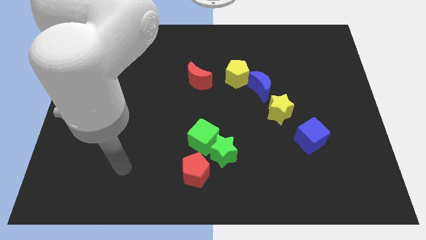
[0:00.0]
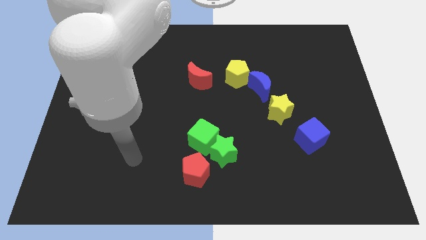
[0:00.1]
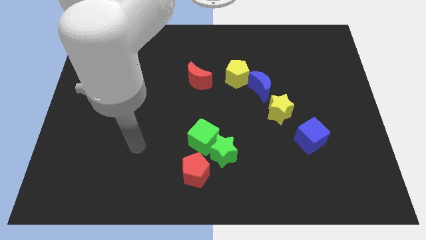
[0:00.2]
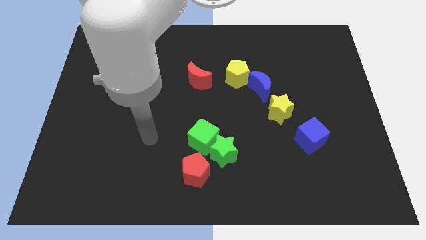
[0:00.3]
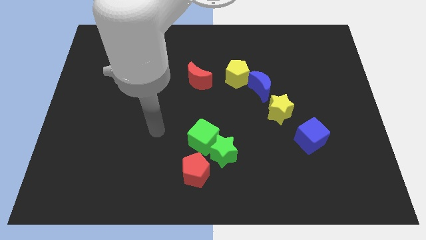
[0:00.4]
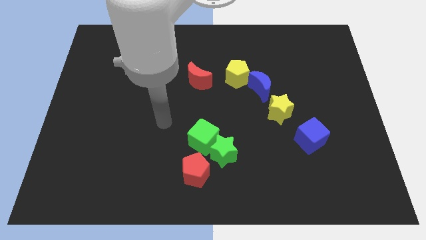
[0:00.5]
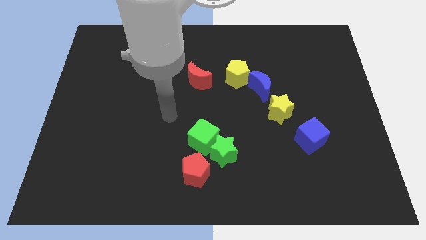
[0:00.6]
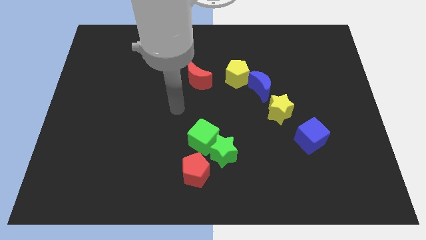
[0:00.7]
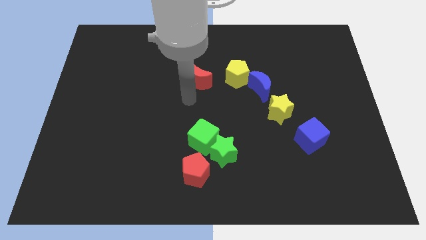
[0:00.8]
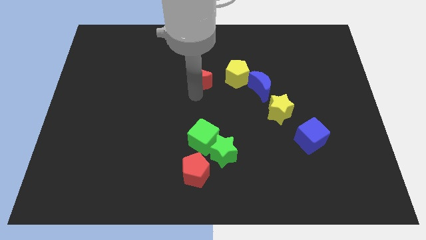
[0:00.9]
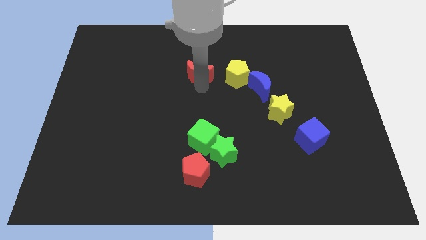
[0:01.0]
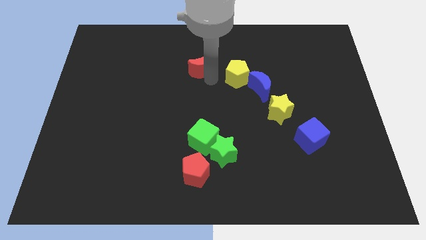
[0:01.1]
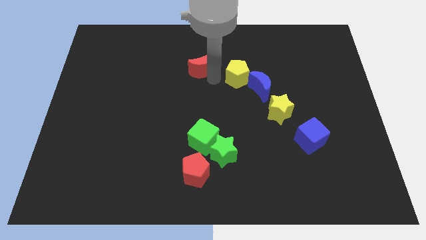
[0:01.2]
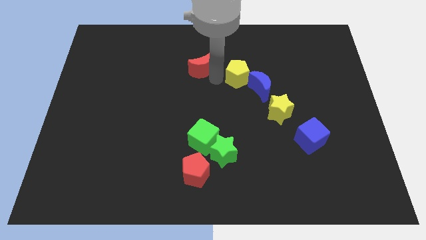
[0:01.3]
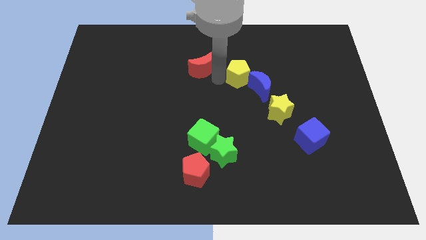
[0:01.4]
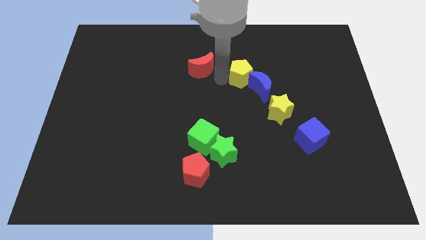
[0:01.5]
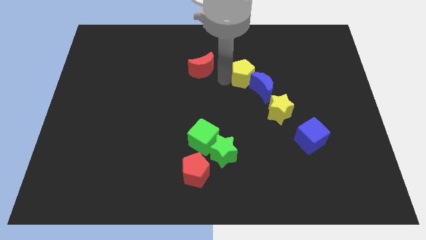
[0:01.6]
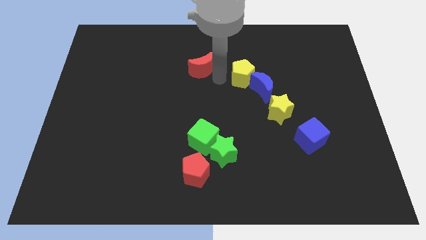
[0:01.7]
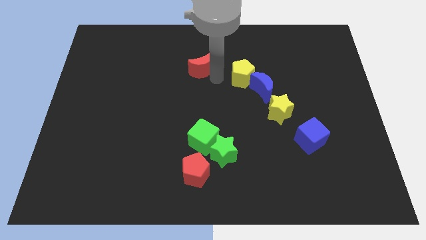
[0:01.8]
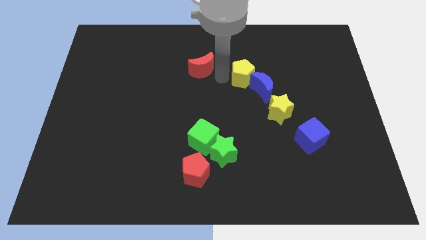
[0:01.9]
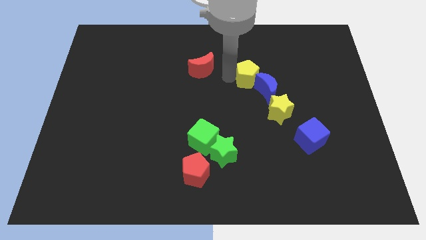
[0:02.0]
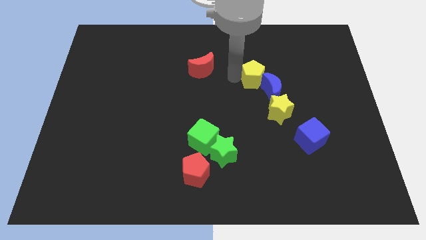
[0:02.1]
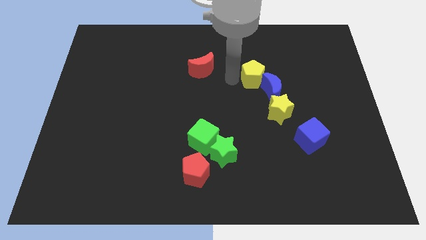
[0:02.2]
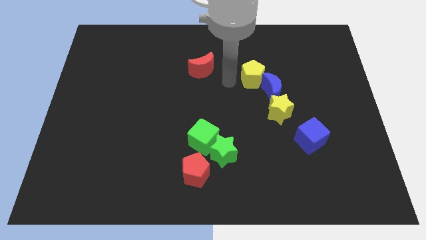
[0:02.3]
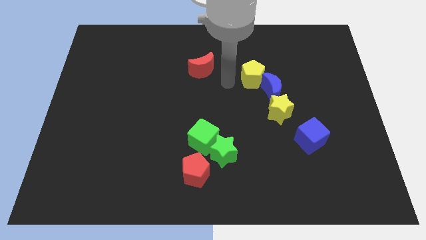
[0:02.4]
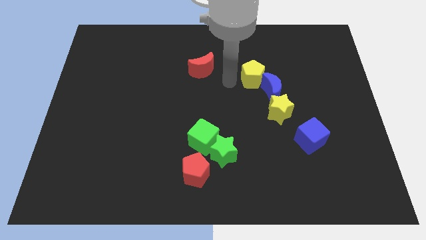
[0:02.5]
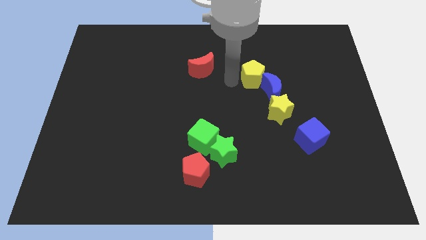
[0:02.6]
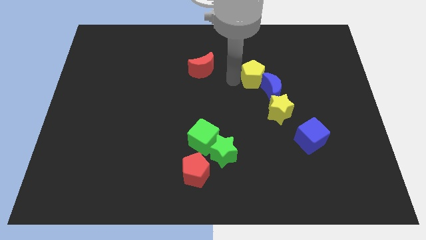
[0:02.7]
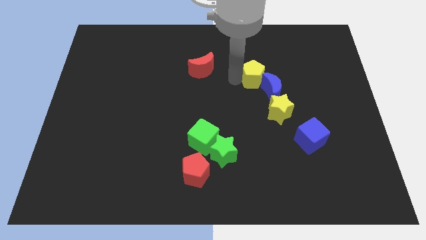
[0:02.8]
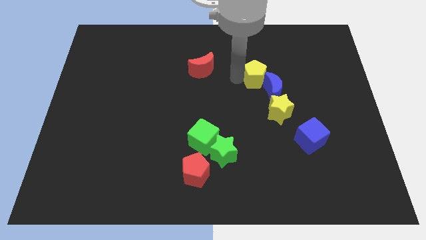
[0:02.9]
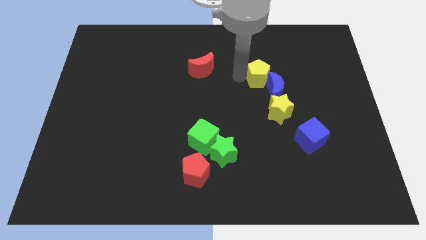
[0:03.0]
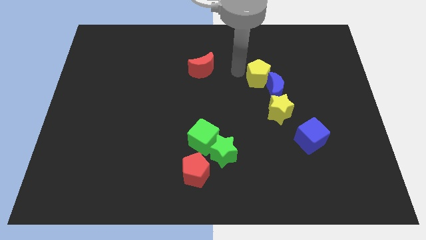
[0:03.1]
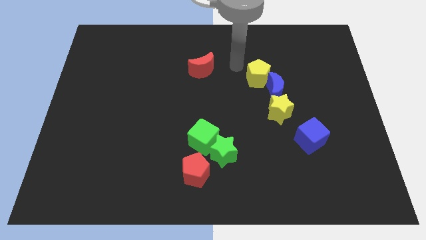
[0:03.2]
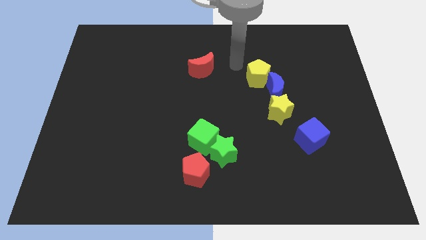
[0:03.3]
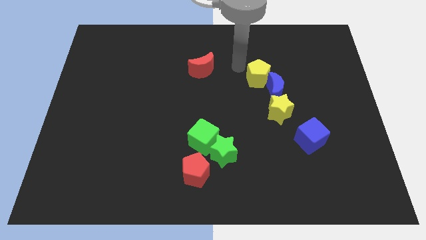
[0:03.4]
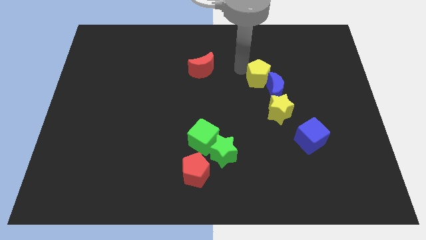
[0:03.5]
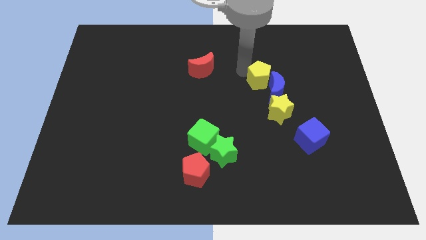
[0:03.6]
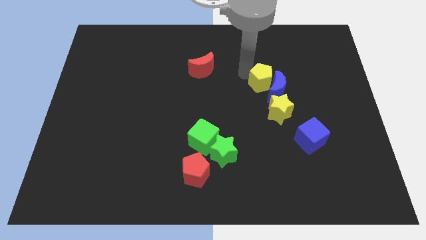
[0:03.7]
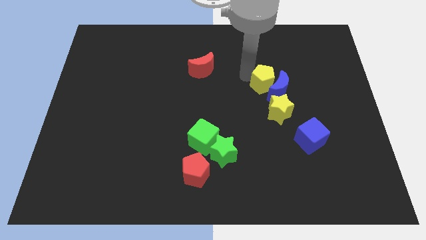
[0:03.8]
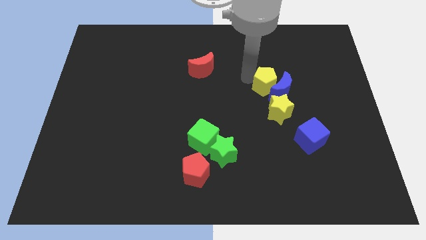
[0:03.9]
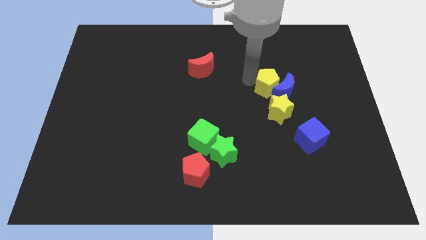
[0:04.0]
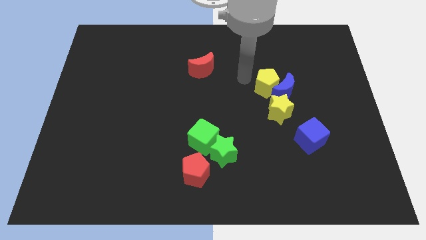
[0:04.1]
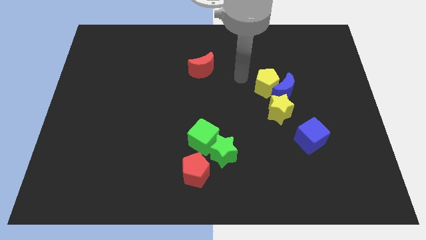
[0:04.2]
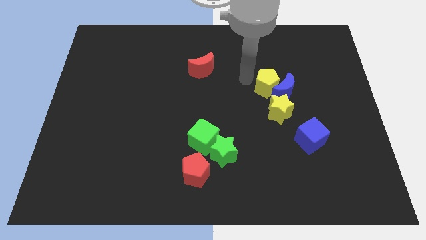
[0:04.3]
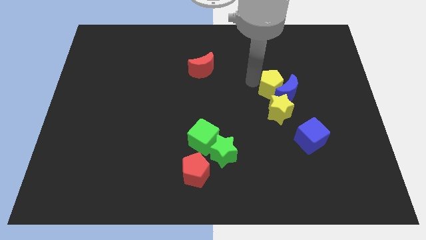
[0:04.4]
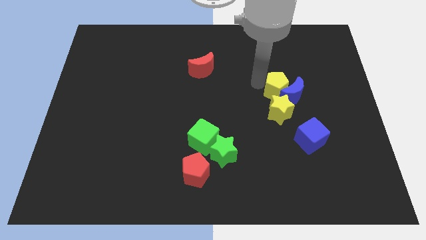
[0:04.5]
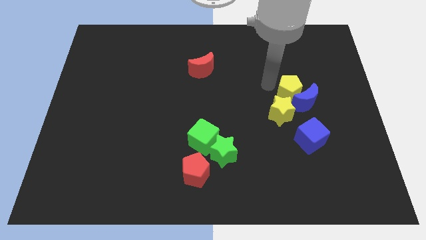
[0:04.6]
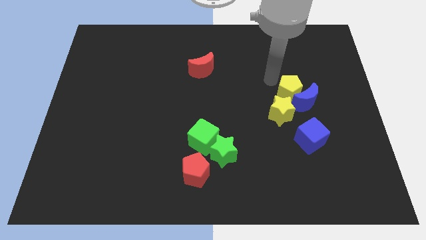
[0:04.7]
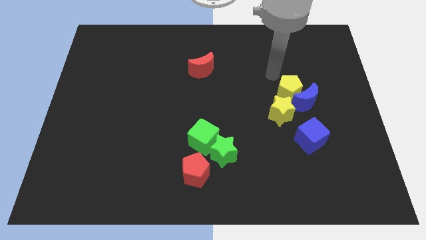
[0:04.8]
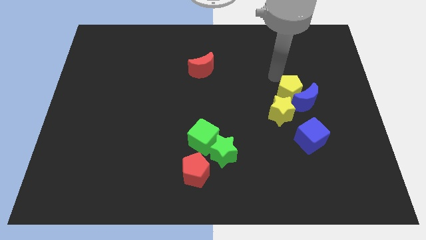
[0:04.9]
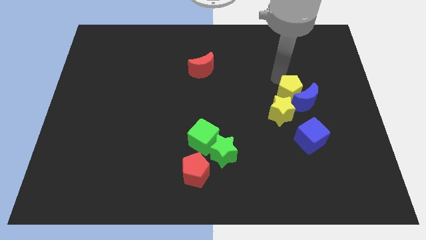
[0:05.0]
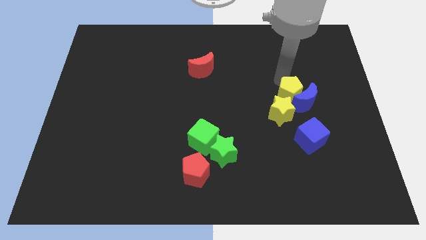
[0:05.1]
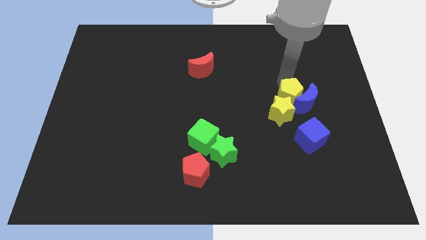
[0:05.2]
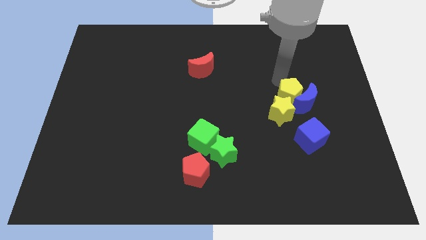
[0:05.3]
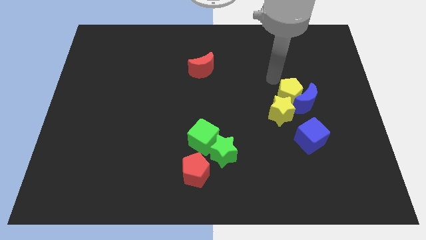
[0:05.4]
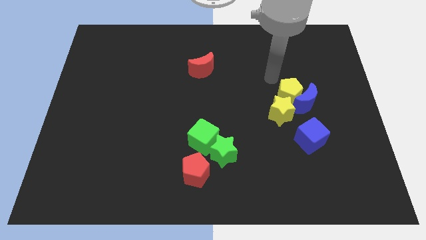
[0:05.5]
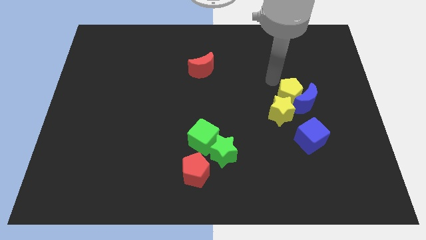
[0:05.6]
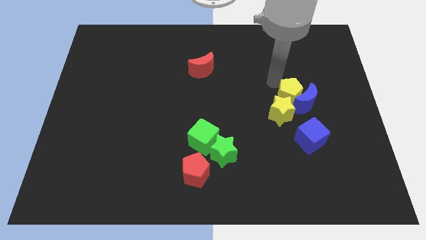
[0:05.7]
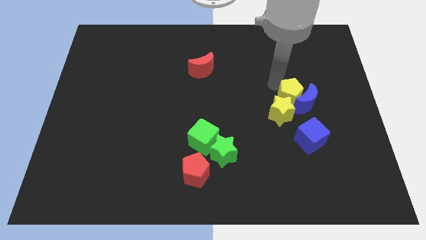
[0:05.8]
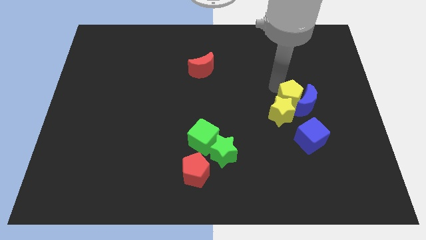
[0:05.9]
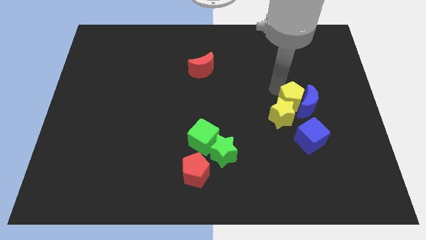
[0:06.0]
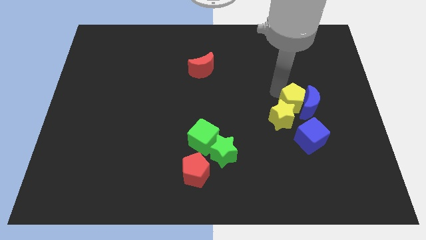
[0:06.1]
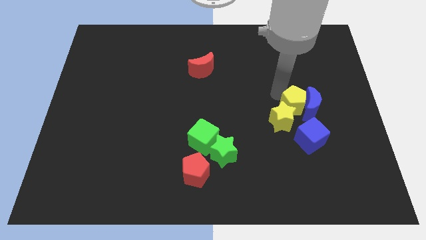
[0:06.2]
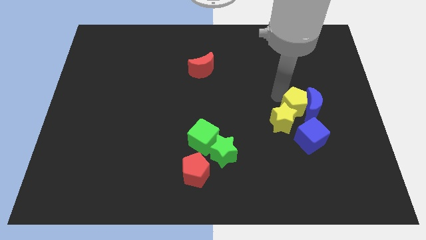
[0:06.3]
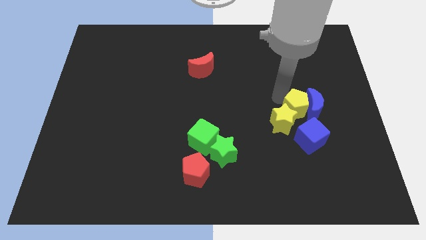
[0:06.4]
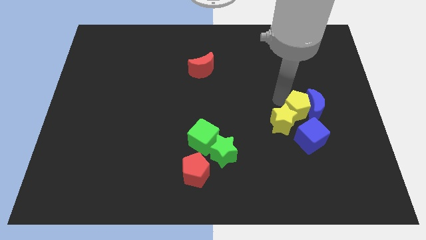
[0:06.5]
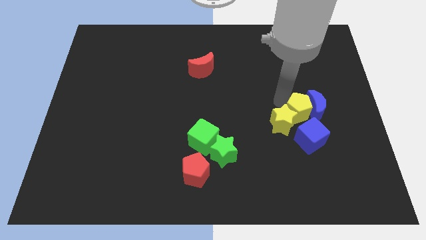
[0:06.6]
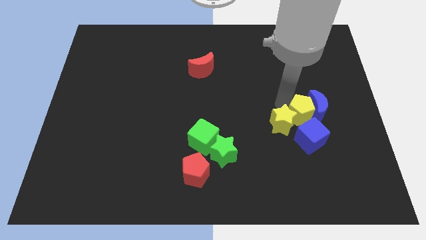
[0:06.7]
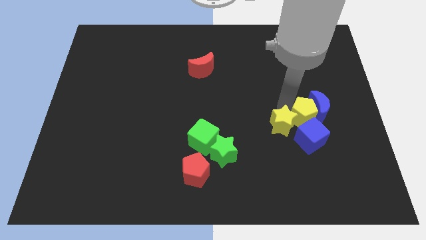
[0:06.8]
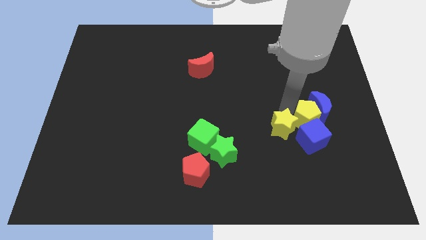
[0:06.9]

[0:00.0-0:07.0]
push the yellow pentagon downwards and right diagonally

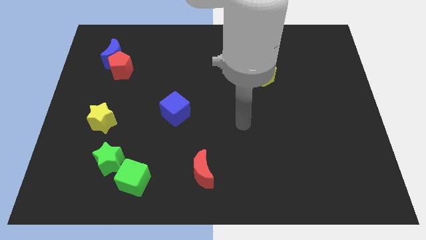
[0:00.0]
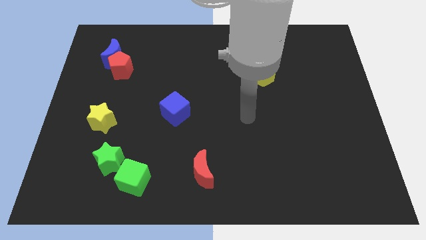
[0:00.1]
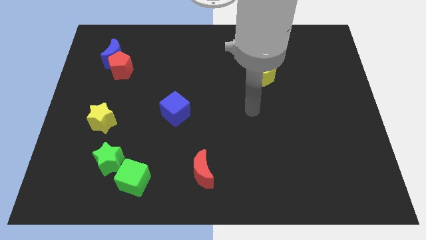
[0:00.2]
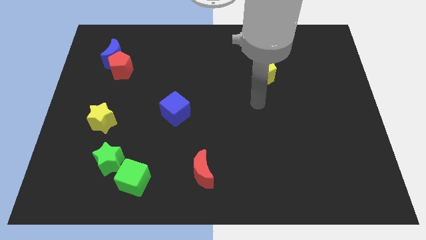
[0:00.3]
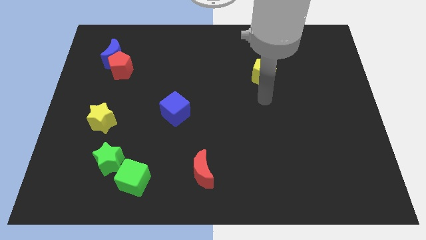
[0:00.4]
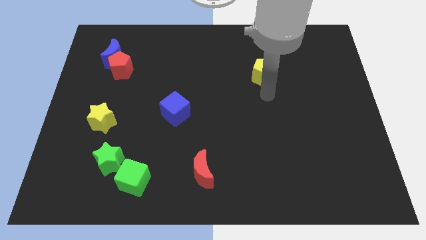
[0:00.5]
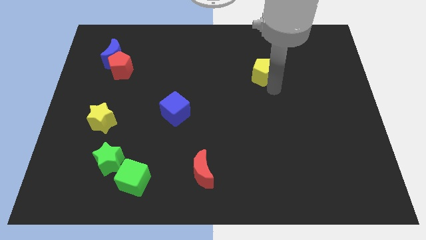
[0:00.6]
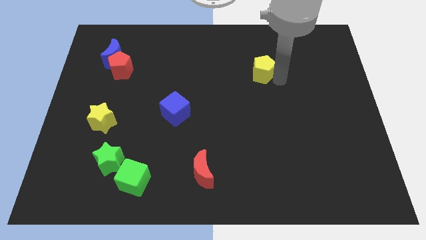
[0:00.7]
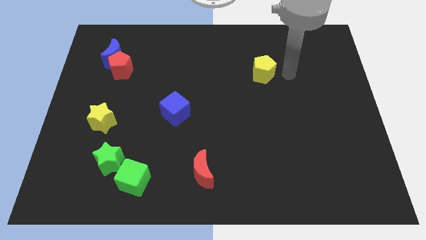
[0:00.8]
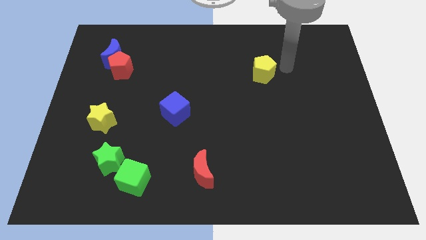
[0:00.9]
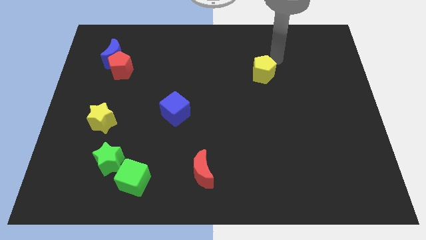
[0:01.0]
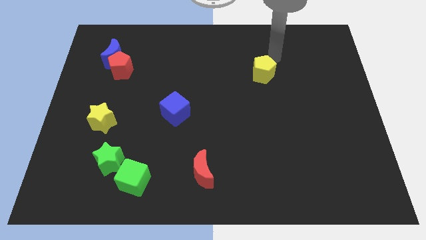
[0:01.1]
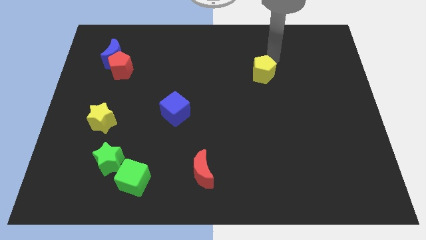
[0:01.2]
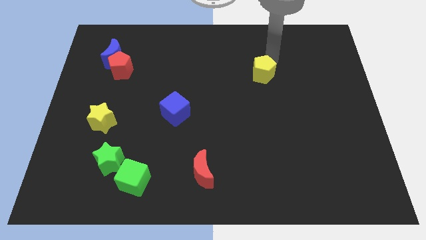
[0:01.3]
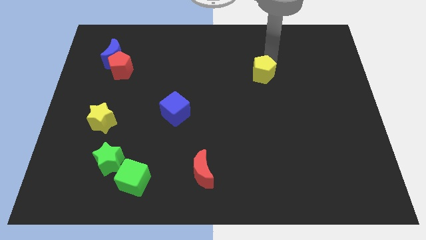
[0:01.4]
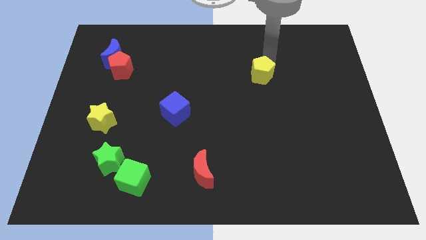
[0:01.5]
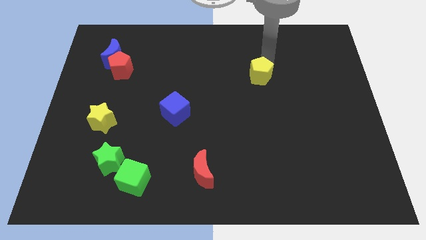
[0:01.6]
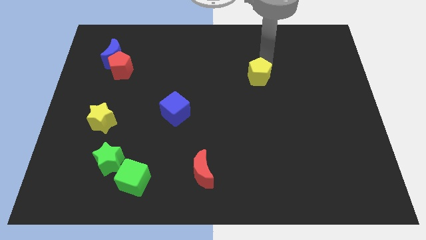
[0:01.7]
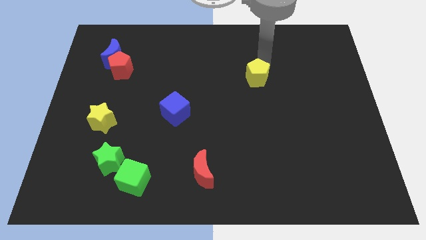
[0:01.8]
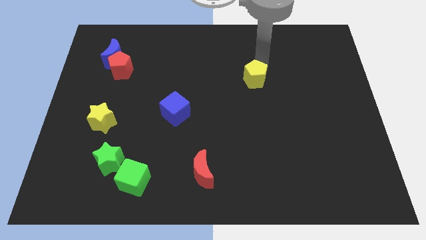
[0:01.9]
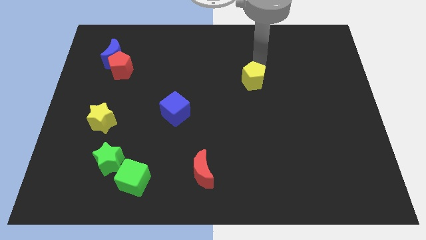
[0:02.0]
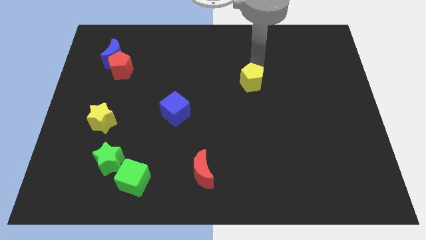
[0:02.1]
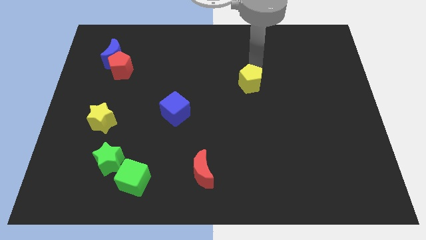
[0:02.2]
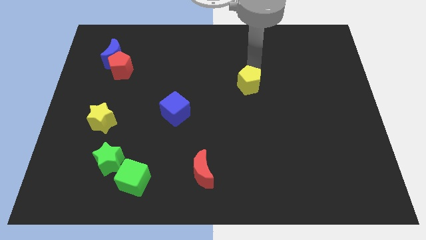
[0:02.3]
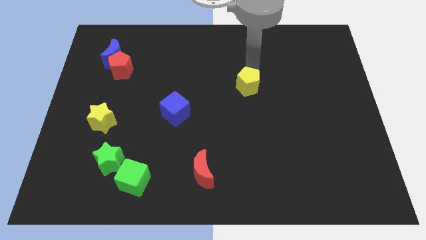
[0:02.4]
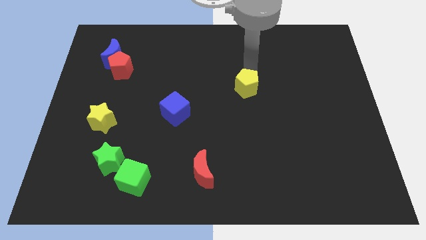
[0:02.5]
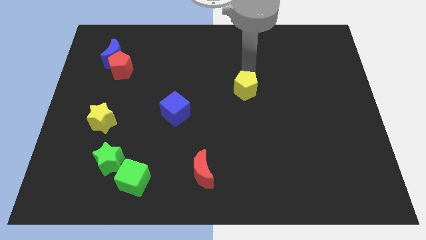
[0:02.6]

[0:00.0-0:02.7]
push the yellow pentagon a bit downwards and to the left diagonally
